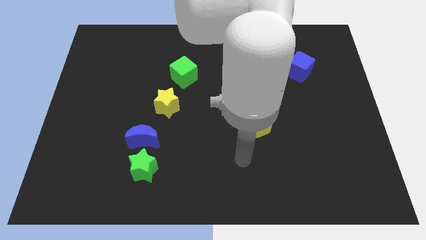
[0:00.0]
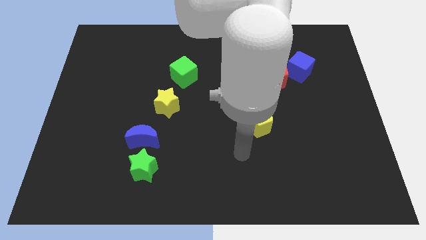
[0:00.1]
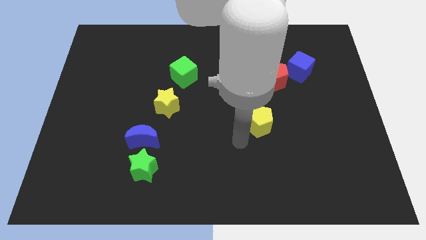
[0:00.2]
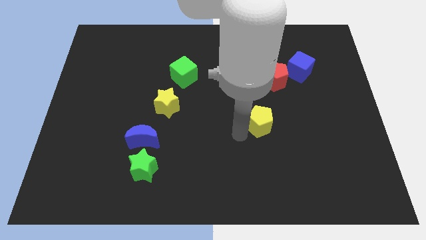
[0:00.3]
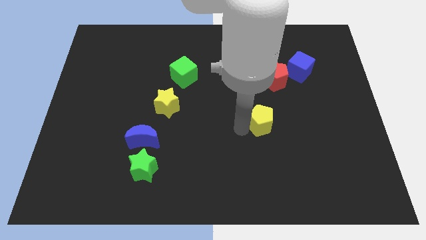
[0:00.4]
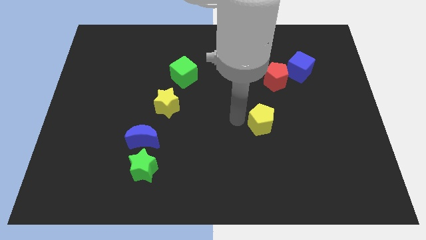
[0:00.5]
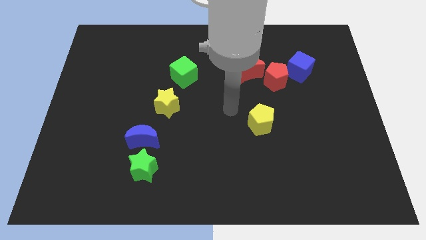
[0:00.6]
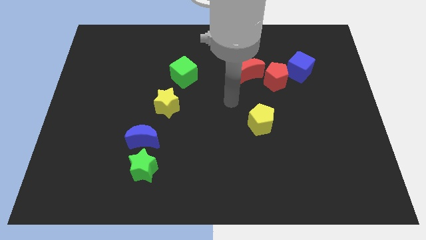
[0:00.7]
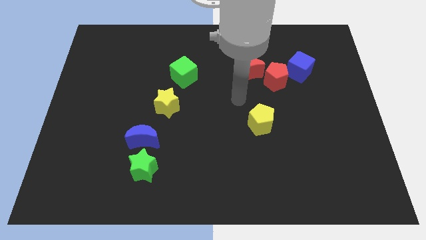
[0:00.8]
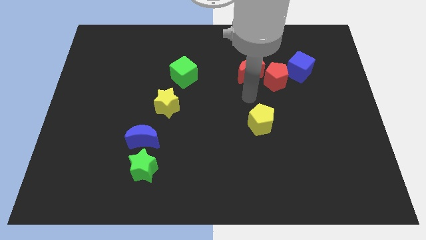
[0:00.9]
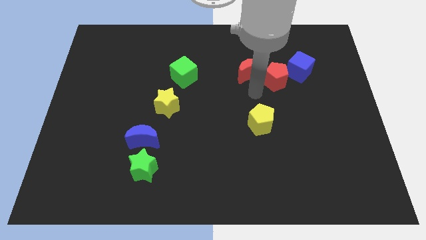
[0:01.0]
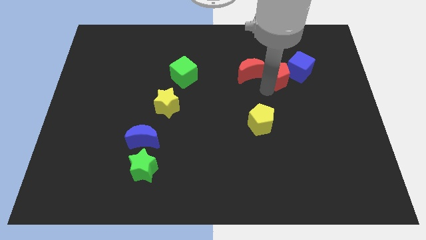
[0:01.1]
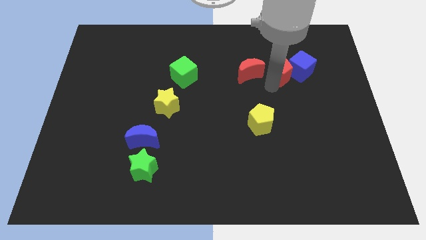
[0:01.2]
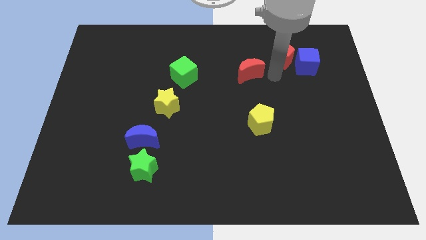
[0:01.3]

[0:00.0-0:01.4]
pull the red moon apart from the red pentagon

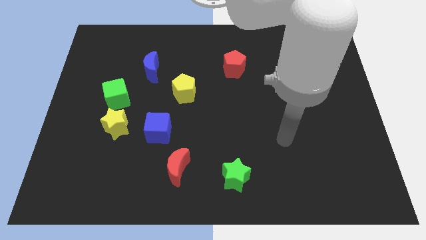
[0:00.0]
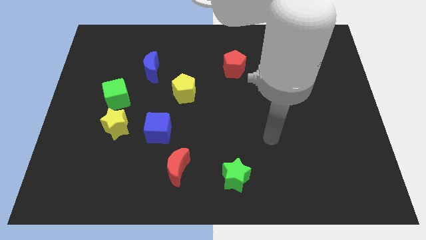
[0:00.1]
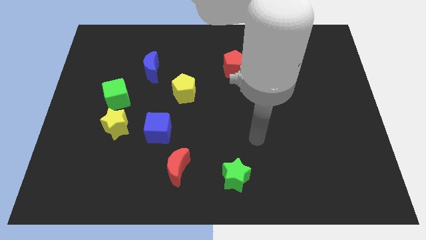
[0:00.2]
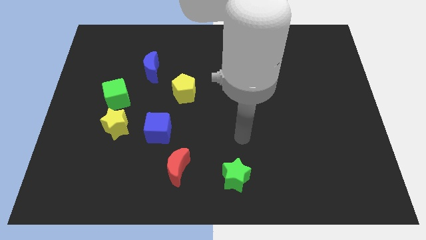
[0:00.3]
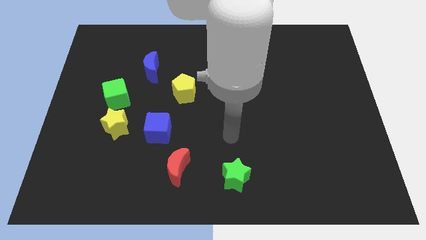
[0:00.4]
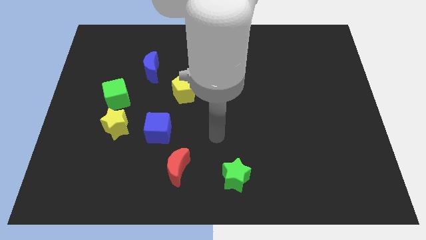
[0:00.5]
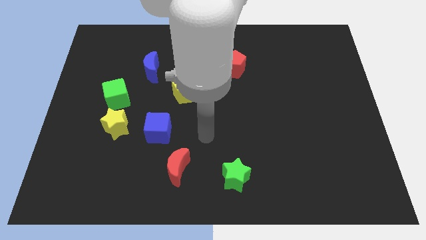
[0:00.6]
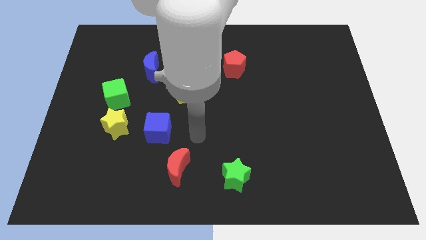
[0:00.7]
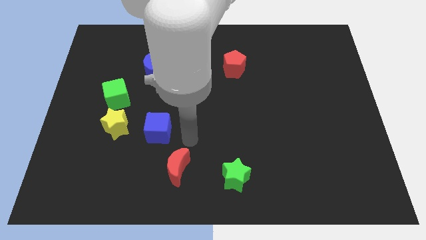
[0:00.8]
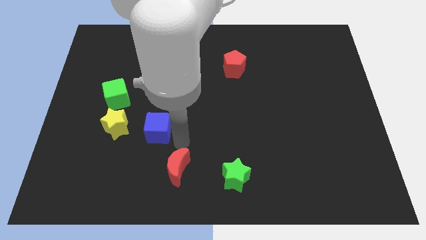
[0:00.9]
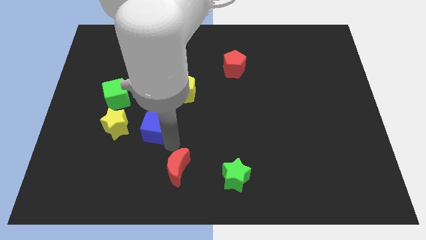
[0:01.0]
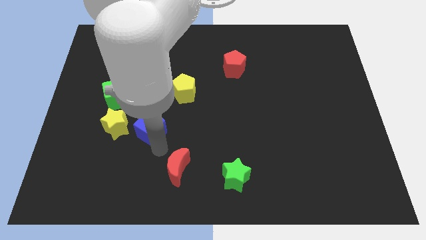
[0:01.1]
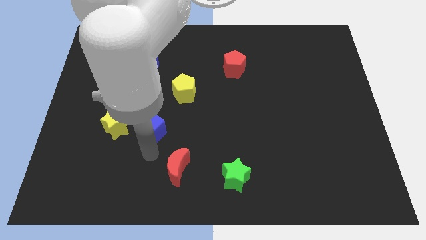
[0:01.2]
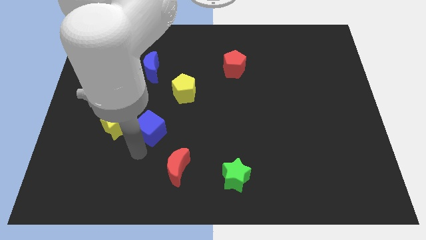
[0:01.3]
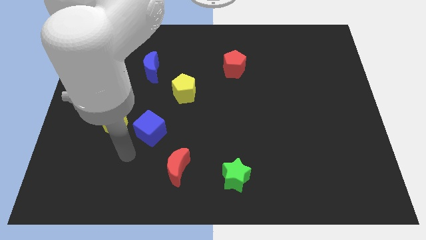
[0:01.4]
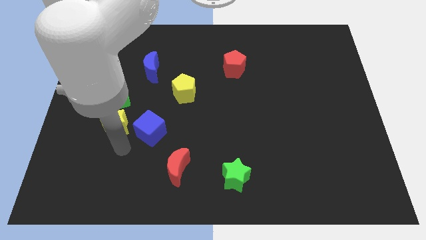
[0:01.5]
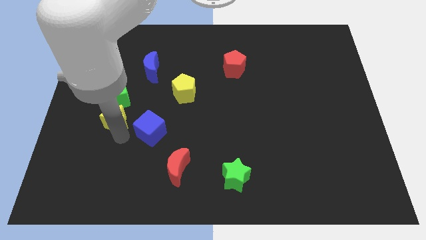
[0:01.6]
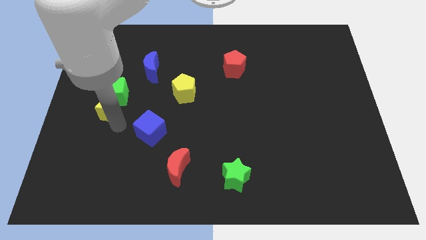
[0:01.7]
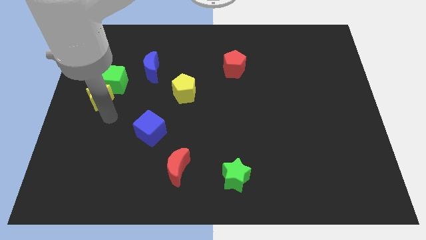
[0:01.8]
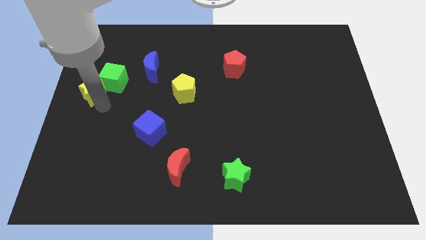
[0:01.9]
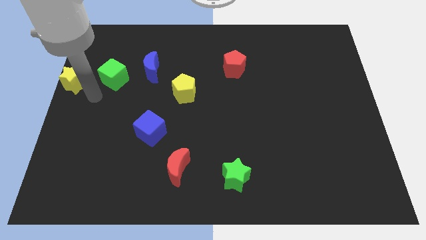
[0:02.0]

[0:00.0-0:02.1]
pull the green cube apart from the yellow star

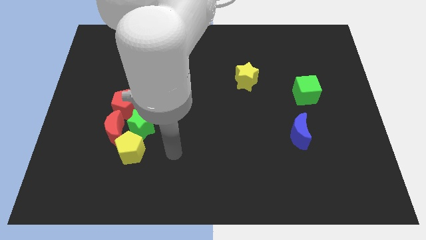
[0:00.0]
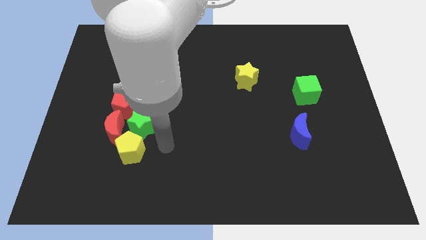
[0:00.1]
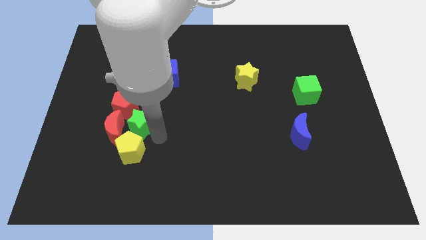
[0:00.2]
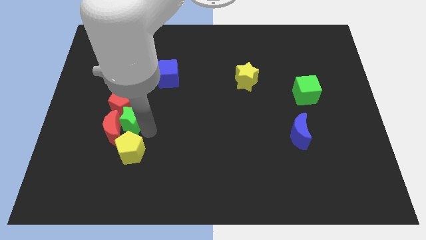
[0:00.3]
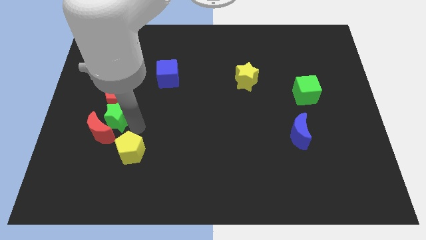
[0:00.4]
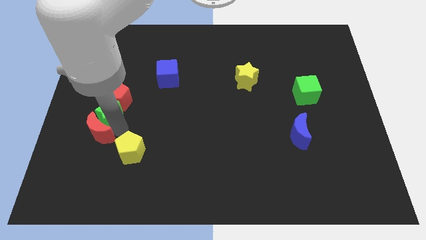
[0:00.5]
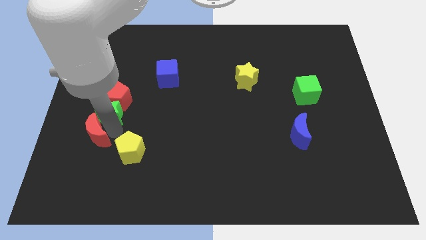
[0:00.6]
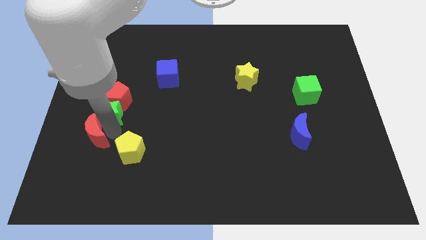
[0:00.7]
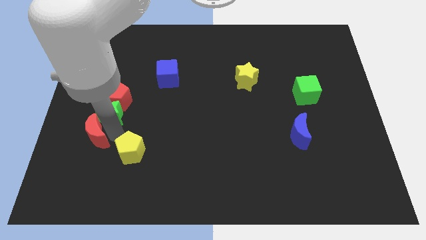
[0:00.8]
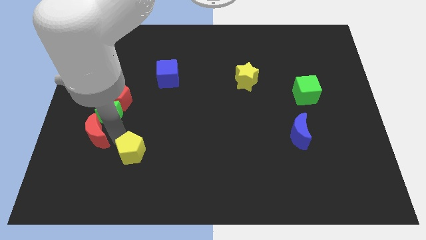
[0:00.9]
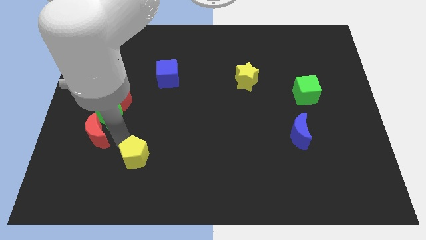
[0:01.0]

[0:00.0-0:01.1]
separate the yellow pentagon from the red moon and green star

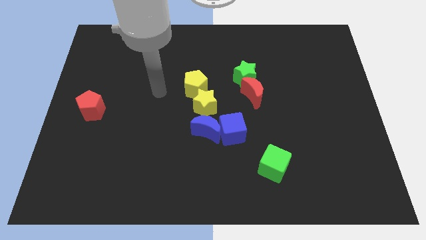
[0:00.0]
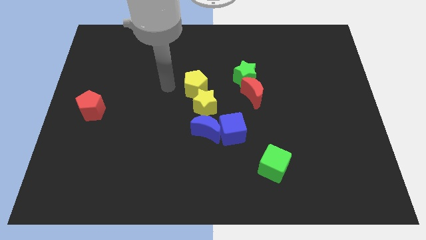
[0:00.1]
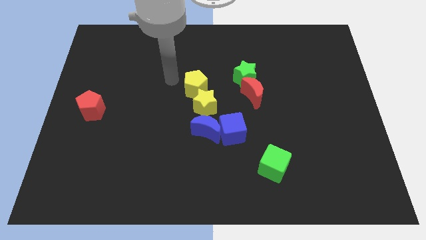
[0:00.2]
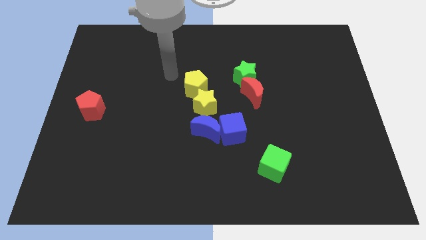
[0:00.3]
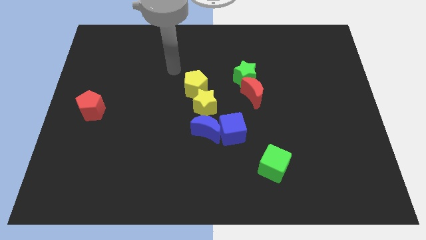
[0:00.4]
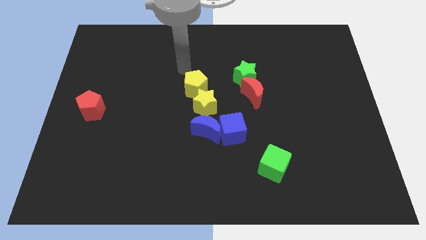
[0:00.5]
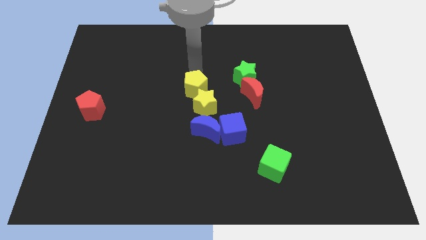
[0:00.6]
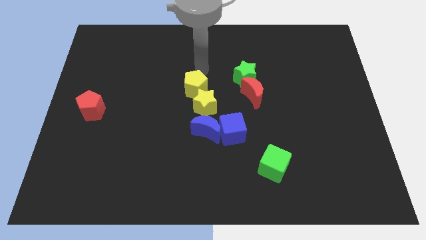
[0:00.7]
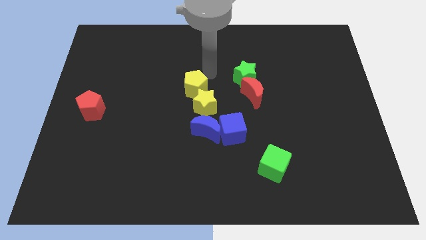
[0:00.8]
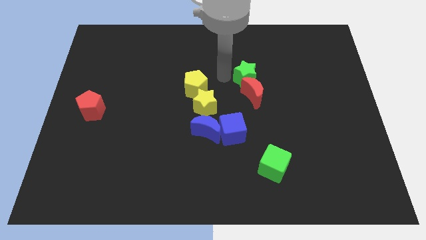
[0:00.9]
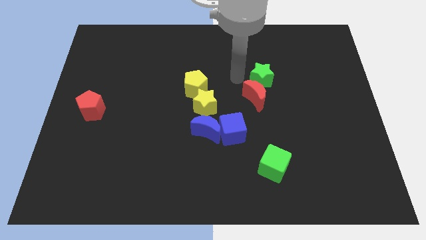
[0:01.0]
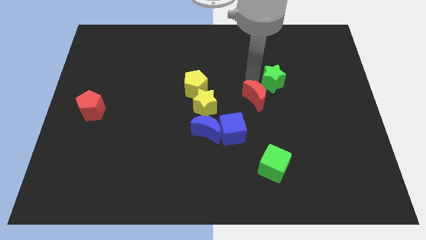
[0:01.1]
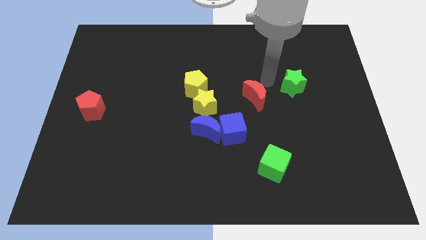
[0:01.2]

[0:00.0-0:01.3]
move the red moon away from the green star

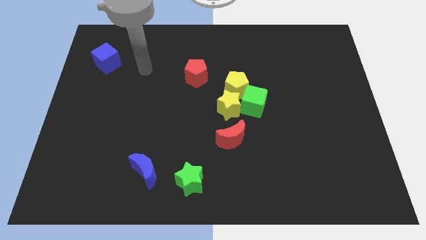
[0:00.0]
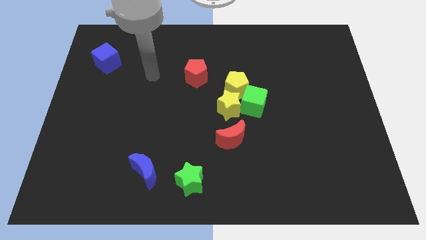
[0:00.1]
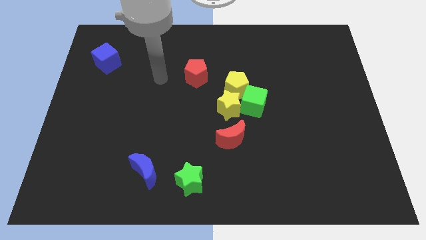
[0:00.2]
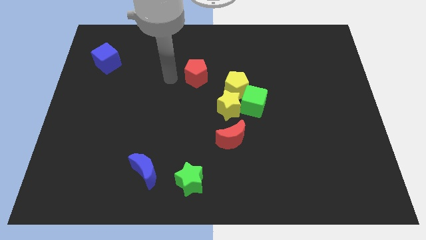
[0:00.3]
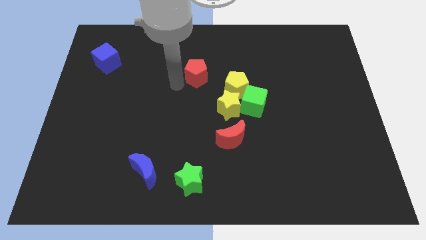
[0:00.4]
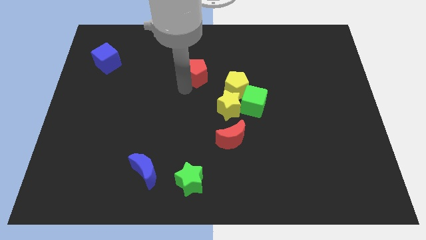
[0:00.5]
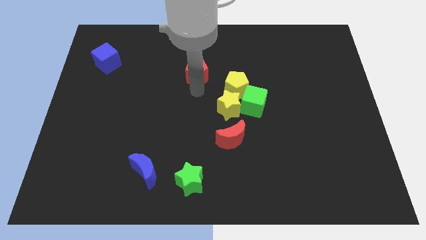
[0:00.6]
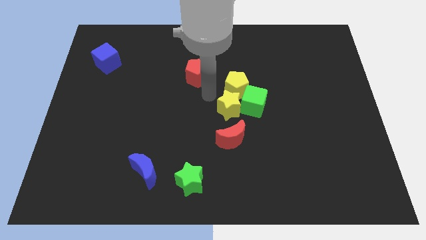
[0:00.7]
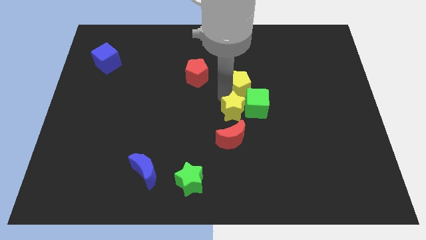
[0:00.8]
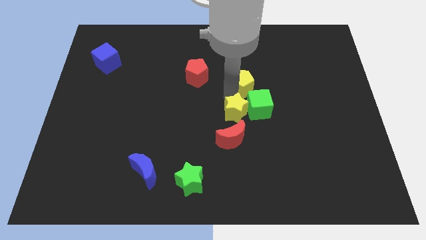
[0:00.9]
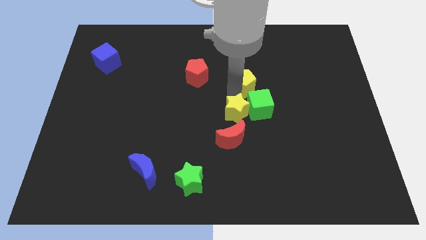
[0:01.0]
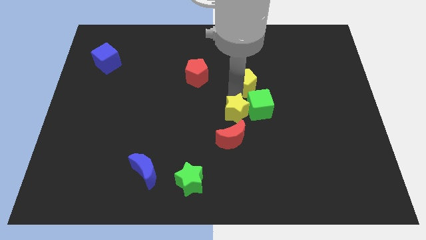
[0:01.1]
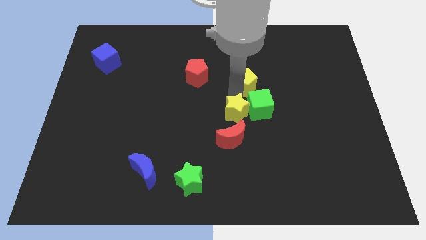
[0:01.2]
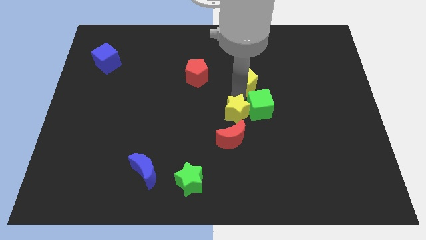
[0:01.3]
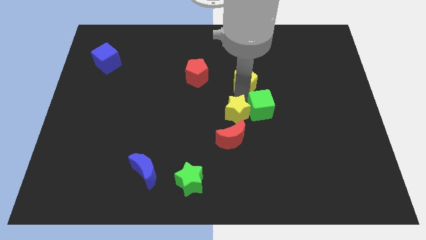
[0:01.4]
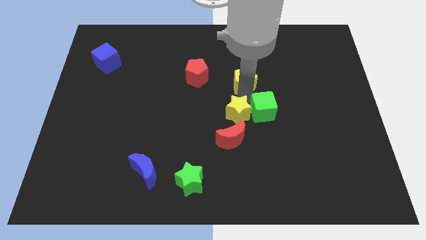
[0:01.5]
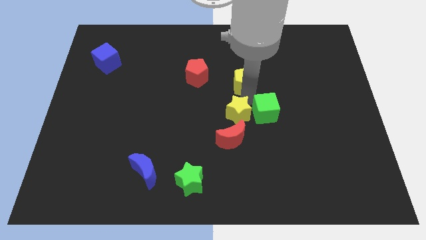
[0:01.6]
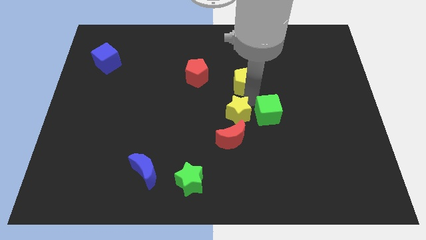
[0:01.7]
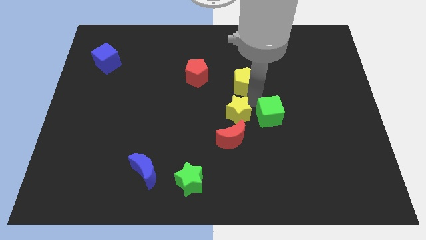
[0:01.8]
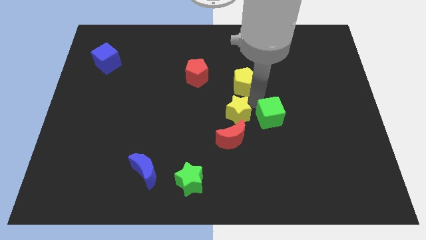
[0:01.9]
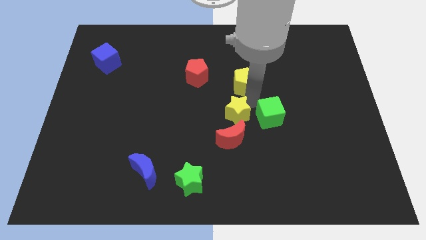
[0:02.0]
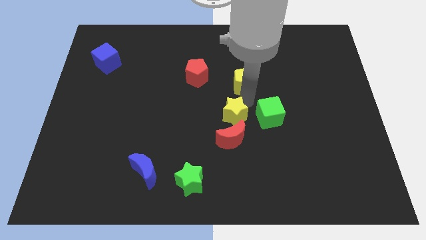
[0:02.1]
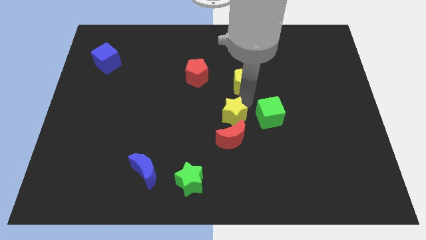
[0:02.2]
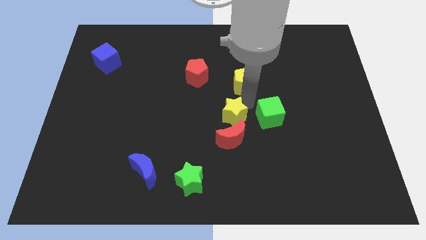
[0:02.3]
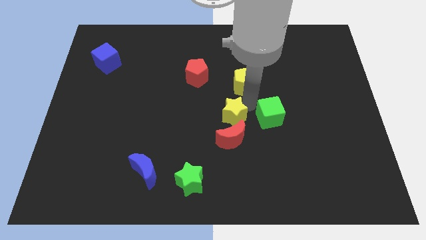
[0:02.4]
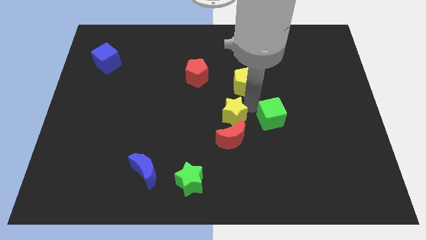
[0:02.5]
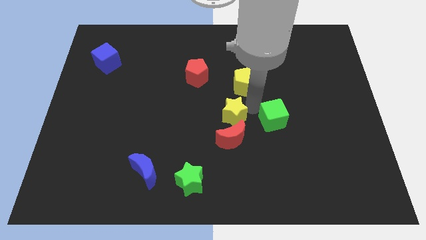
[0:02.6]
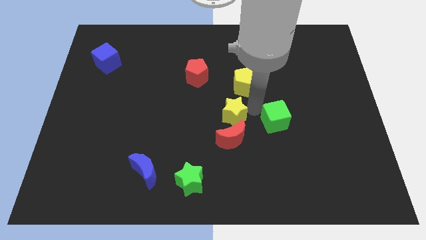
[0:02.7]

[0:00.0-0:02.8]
move the green cube away from the yellow star and yellow pentagon

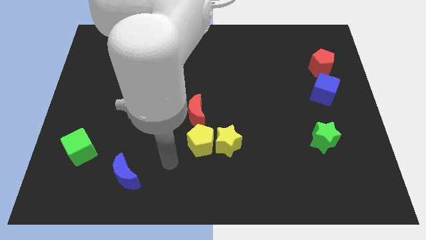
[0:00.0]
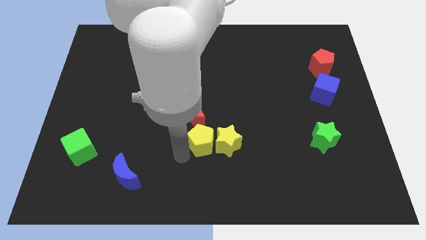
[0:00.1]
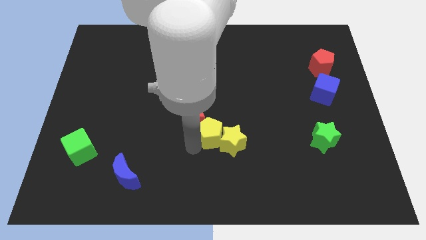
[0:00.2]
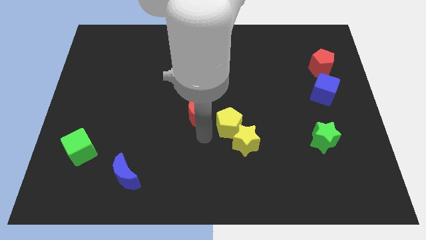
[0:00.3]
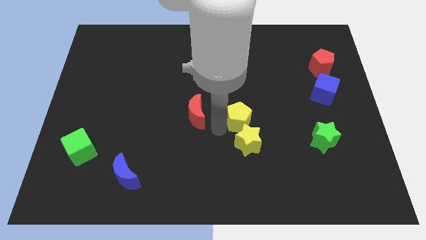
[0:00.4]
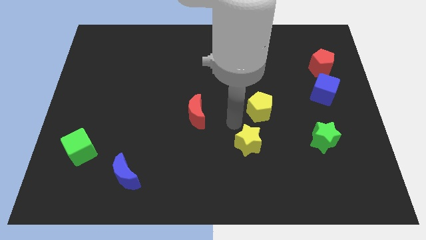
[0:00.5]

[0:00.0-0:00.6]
move the yellow star away from the yellow pentagon
